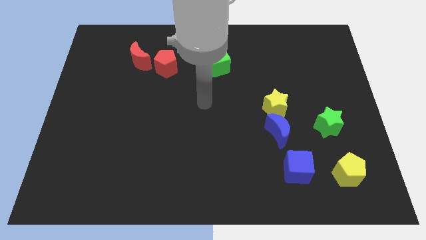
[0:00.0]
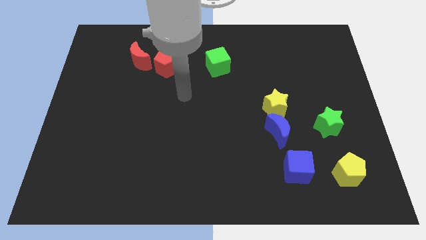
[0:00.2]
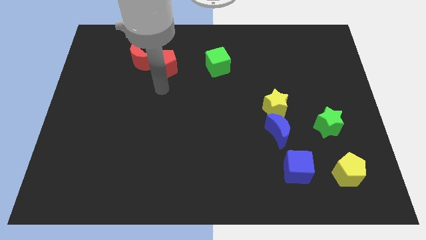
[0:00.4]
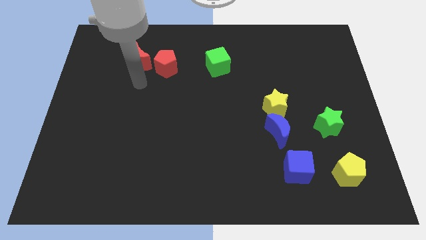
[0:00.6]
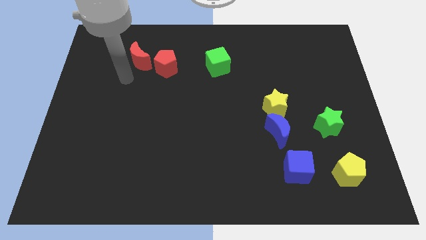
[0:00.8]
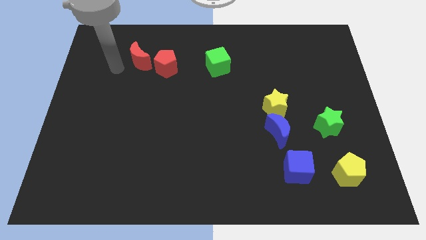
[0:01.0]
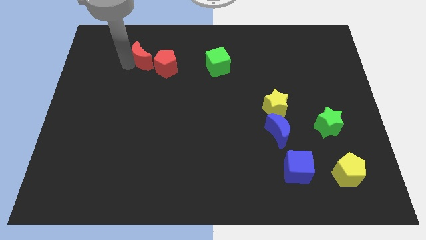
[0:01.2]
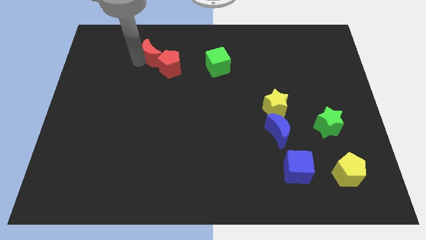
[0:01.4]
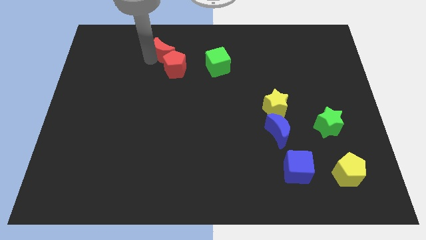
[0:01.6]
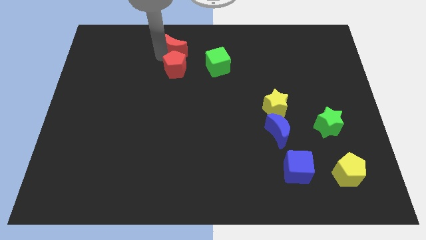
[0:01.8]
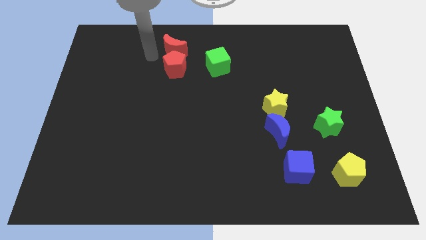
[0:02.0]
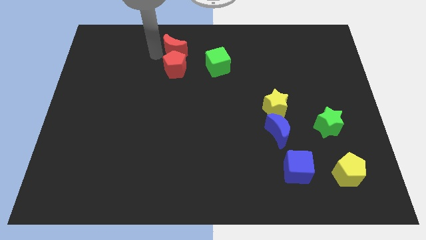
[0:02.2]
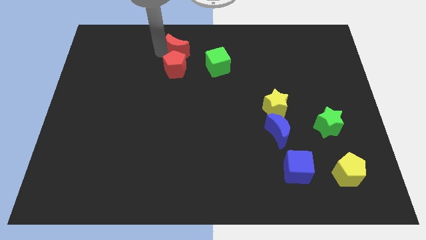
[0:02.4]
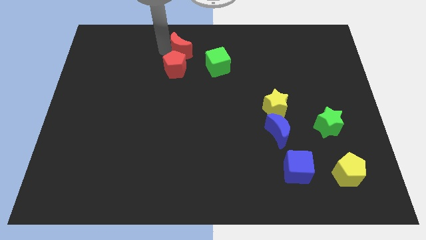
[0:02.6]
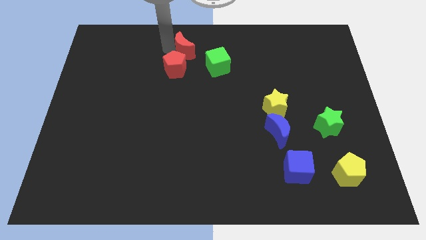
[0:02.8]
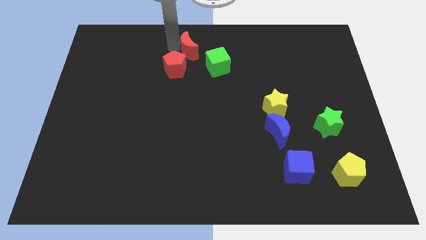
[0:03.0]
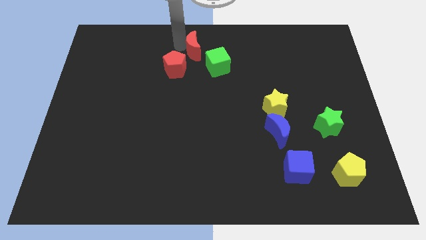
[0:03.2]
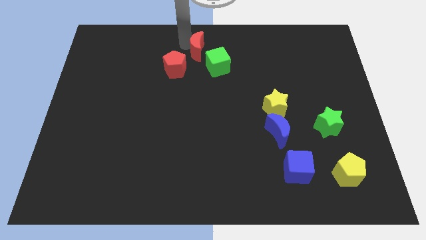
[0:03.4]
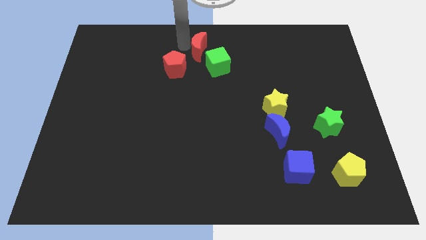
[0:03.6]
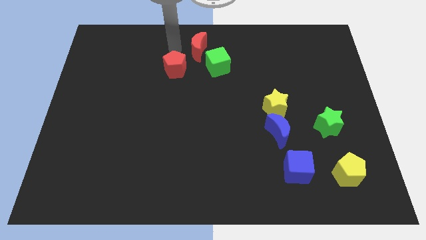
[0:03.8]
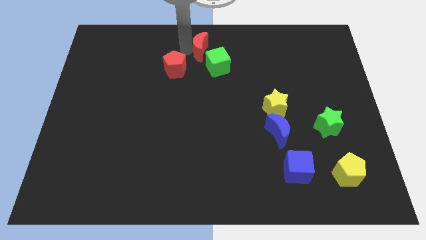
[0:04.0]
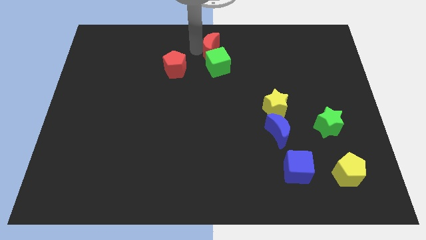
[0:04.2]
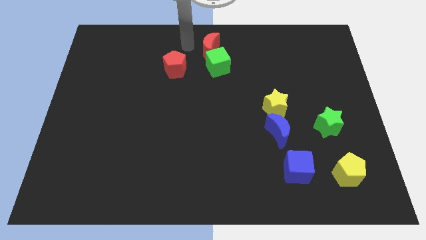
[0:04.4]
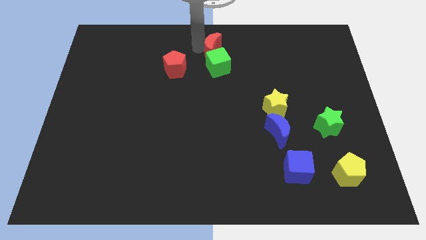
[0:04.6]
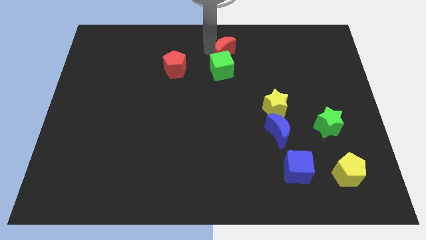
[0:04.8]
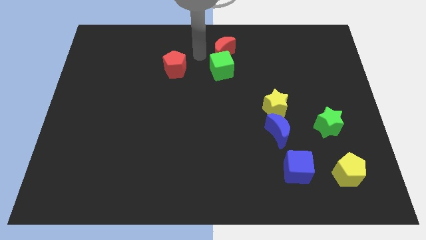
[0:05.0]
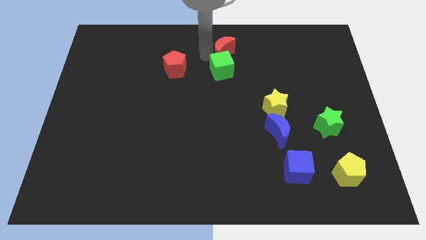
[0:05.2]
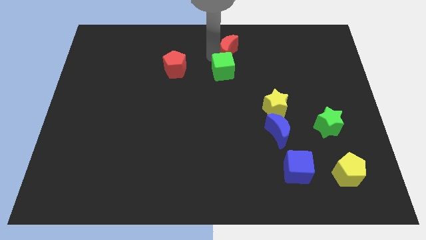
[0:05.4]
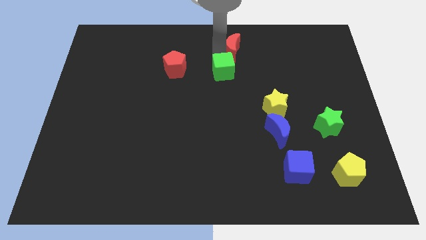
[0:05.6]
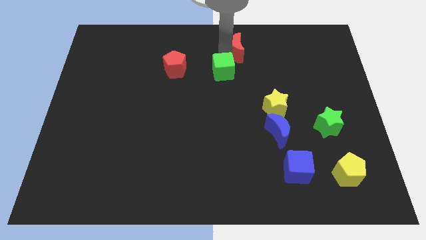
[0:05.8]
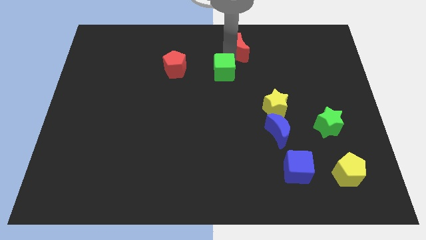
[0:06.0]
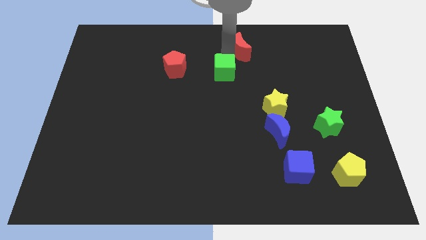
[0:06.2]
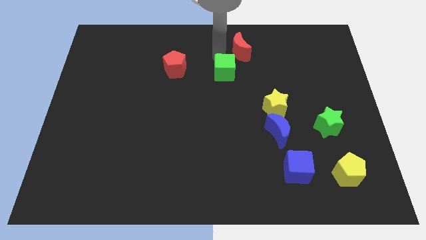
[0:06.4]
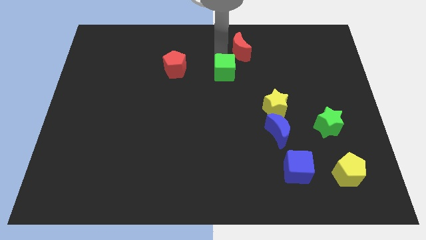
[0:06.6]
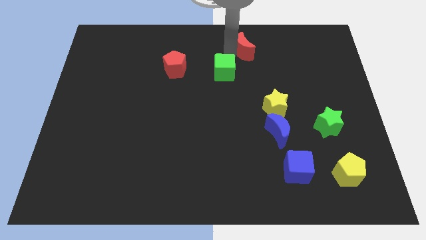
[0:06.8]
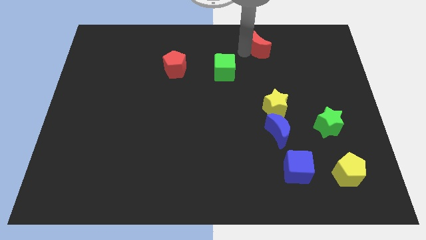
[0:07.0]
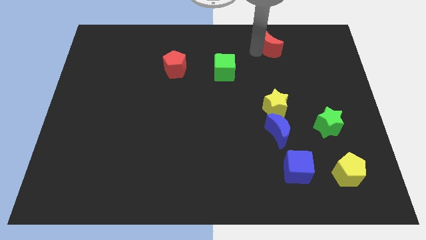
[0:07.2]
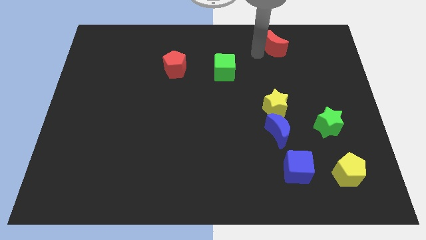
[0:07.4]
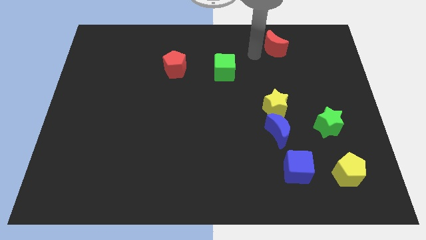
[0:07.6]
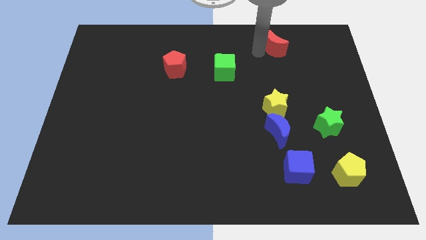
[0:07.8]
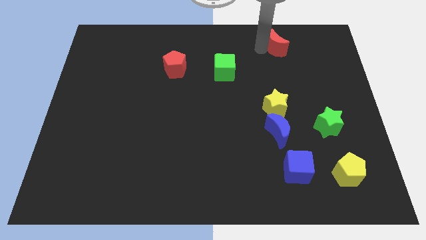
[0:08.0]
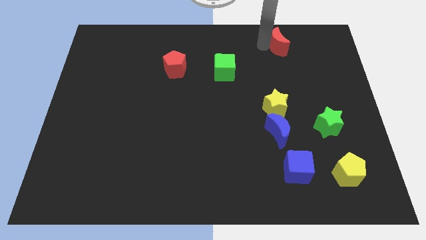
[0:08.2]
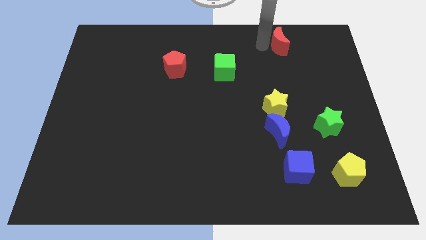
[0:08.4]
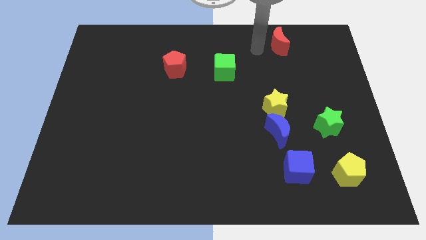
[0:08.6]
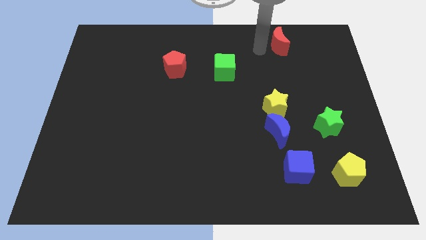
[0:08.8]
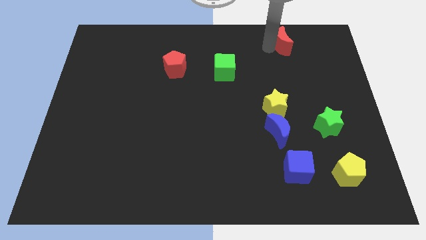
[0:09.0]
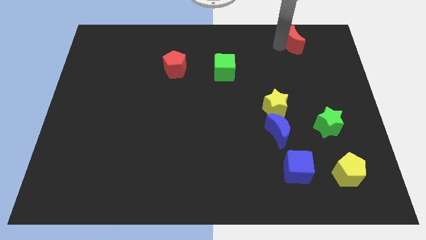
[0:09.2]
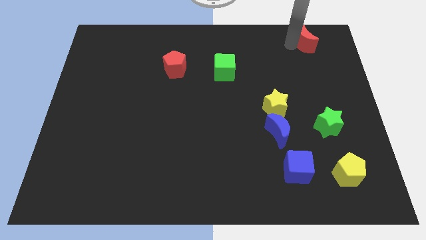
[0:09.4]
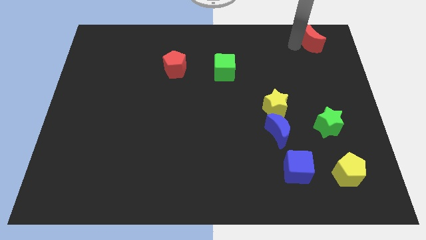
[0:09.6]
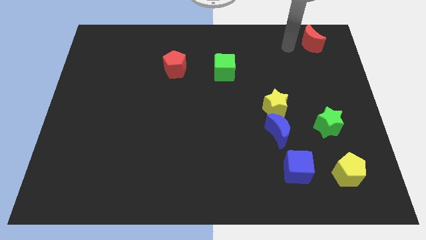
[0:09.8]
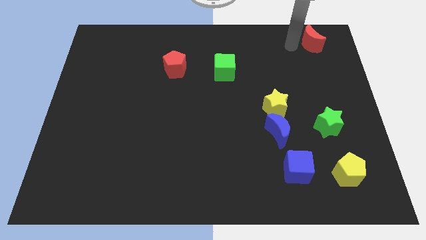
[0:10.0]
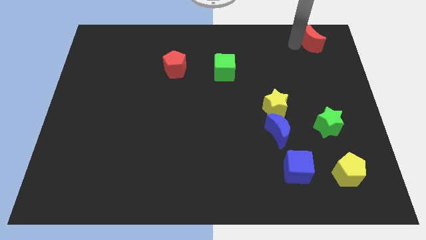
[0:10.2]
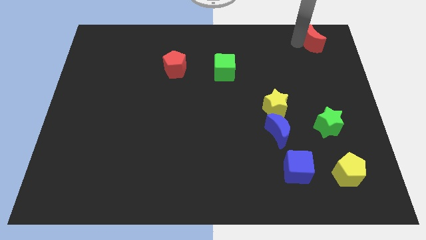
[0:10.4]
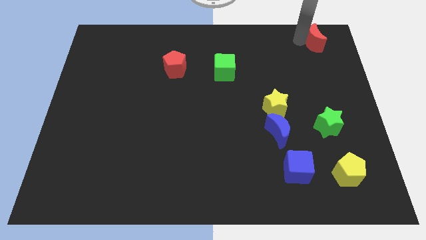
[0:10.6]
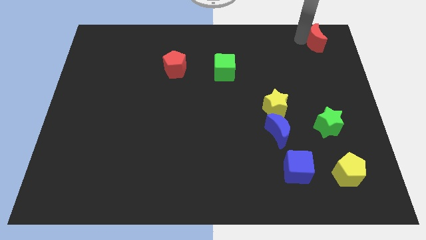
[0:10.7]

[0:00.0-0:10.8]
slide the red moon to the top right

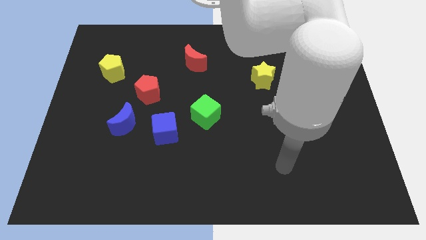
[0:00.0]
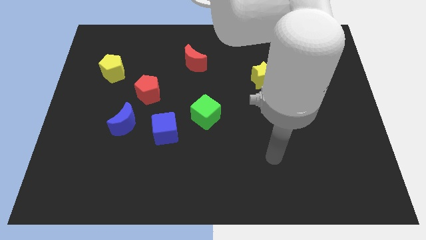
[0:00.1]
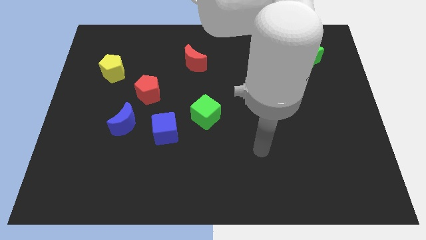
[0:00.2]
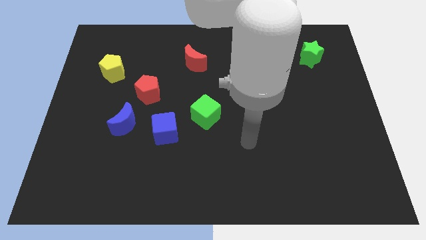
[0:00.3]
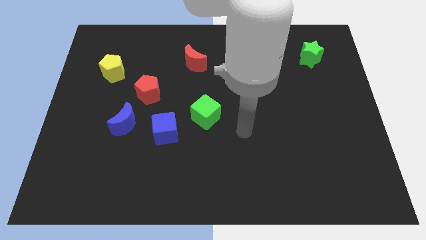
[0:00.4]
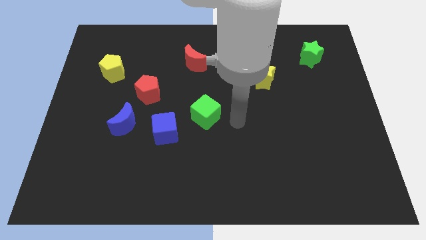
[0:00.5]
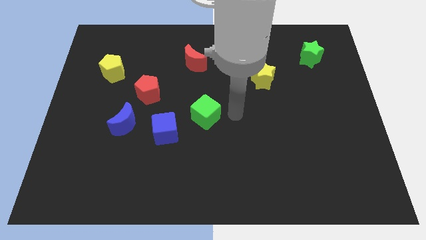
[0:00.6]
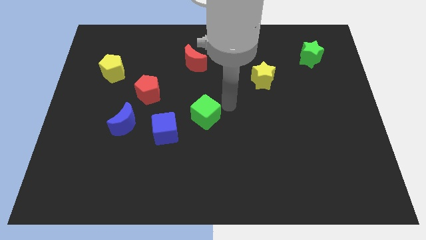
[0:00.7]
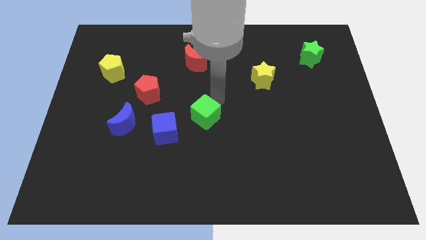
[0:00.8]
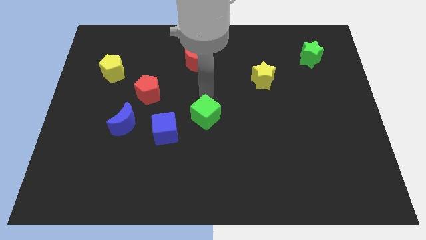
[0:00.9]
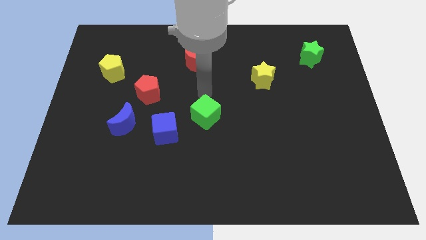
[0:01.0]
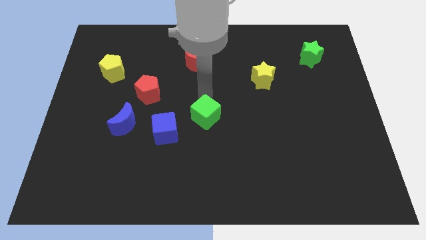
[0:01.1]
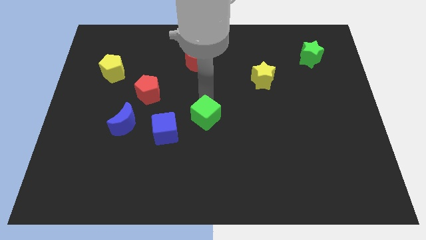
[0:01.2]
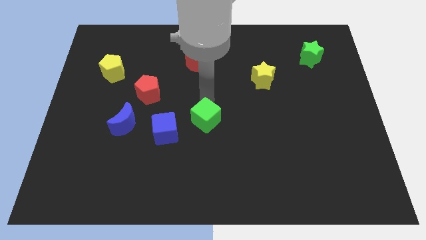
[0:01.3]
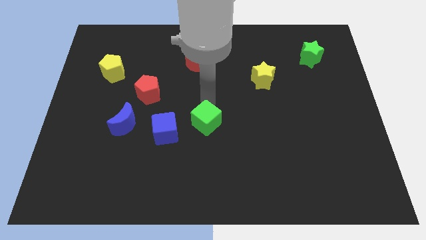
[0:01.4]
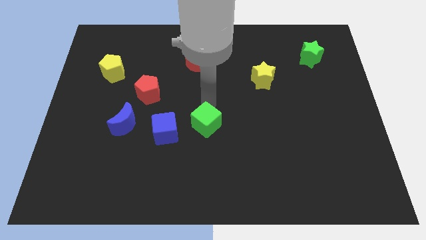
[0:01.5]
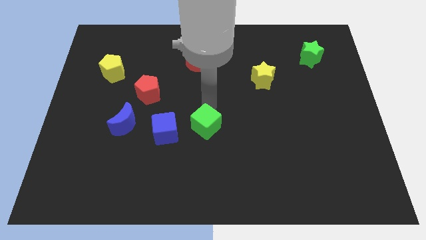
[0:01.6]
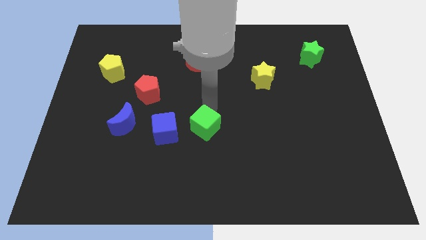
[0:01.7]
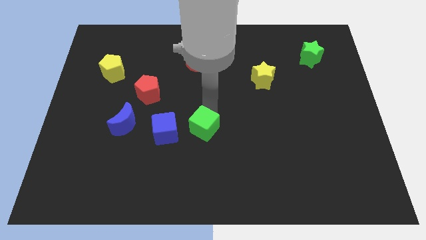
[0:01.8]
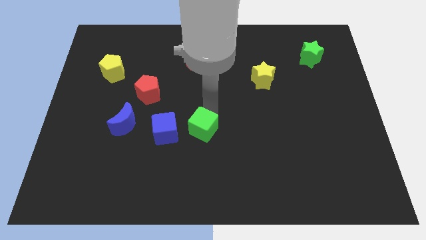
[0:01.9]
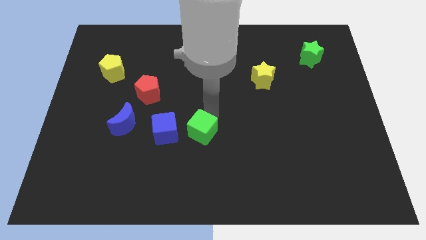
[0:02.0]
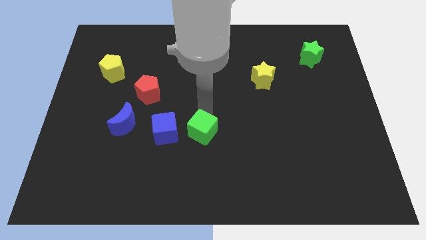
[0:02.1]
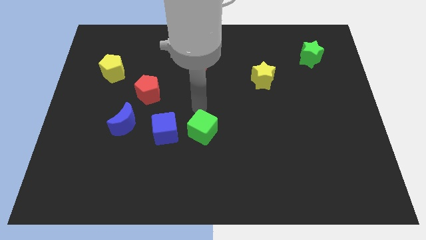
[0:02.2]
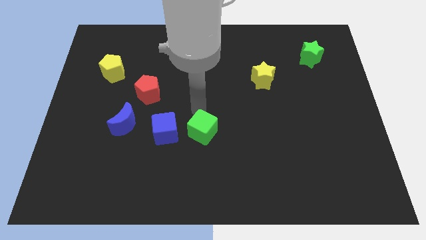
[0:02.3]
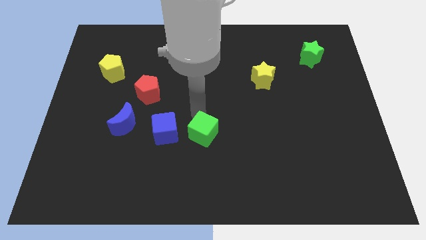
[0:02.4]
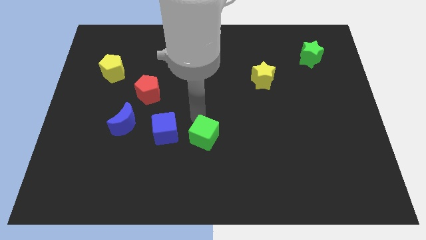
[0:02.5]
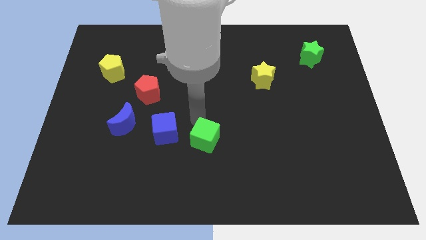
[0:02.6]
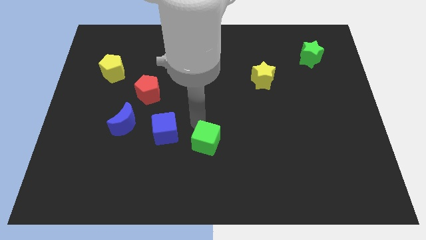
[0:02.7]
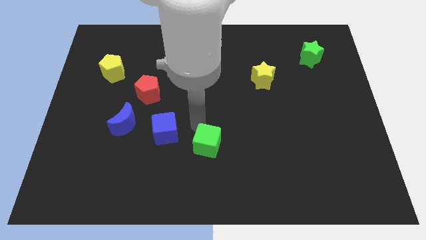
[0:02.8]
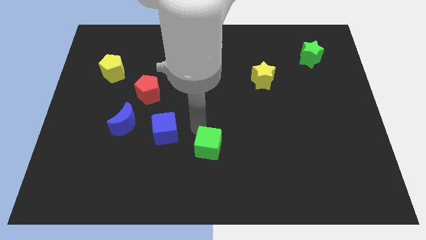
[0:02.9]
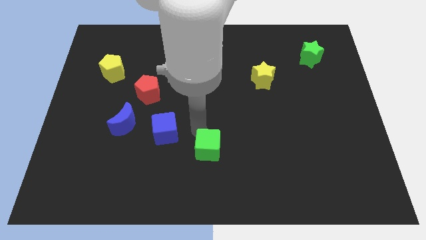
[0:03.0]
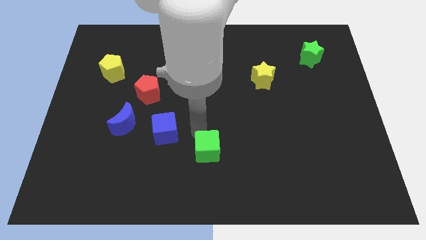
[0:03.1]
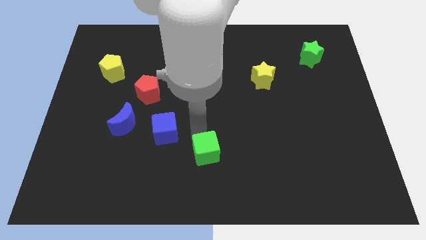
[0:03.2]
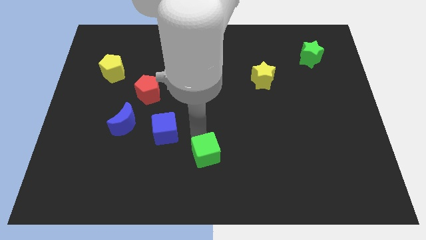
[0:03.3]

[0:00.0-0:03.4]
slide the green cube to the bottom
